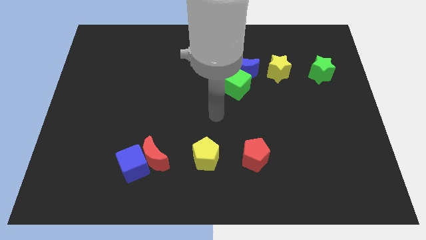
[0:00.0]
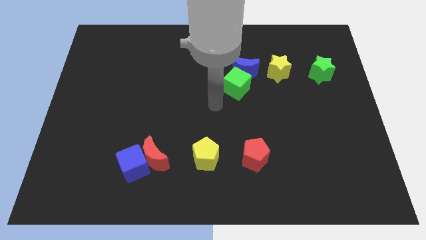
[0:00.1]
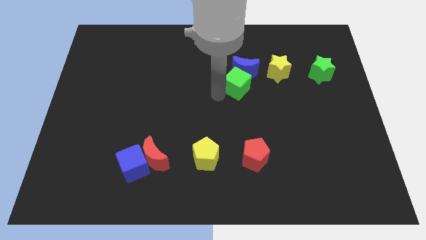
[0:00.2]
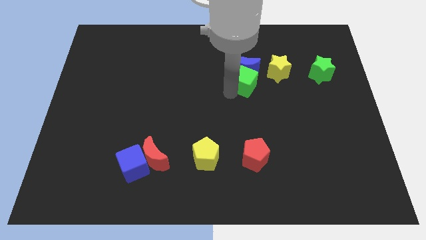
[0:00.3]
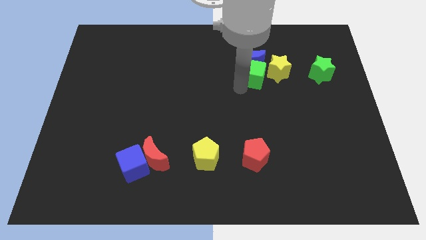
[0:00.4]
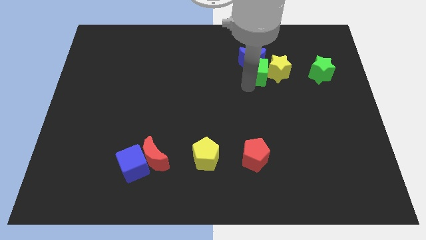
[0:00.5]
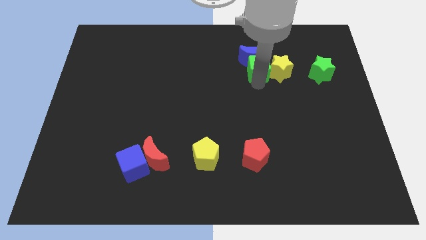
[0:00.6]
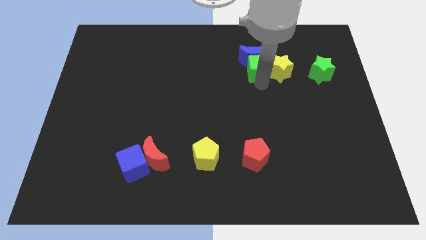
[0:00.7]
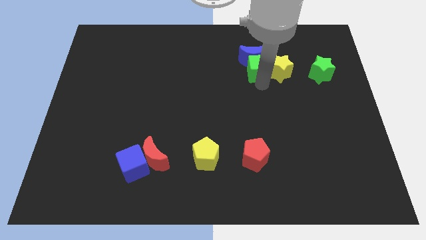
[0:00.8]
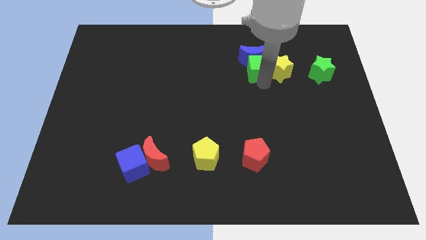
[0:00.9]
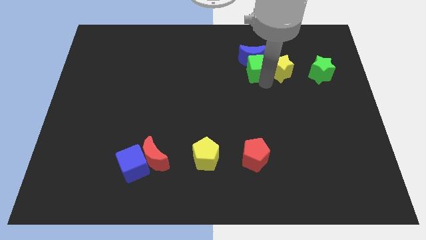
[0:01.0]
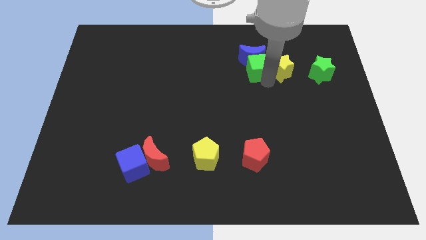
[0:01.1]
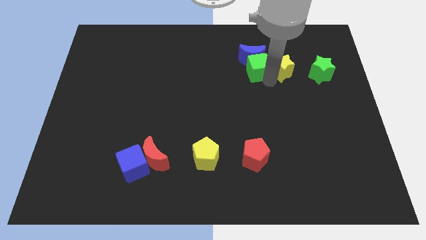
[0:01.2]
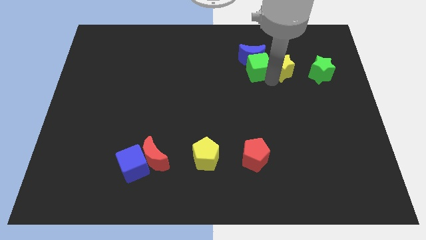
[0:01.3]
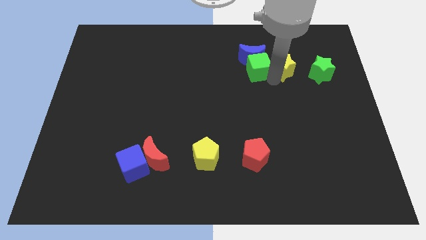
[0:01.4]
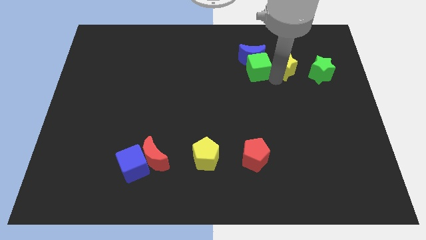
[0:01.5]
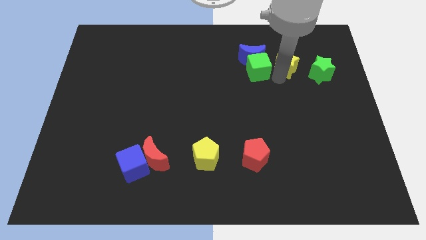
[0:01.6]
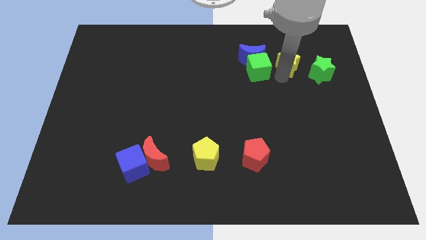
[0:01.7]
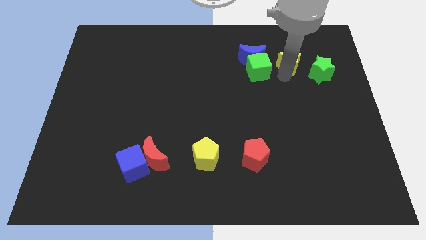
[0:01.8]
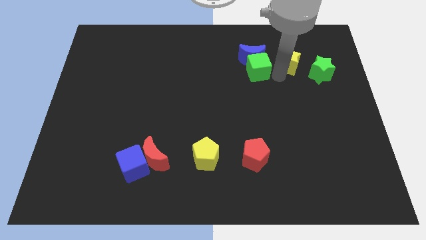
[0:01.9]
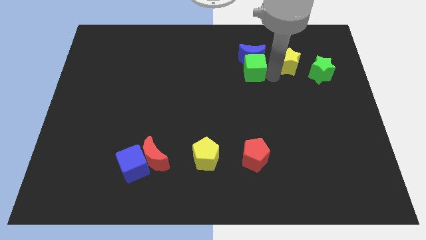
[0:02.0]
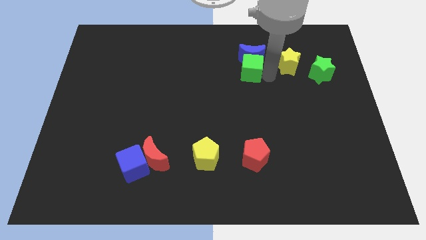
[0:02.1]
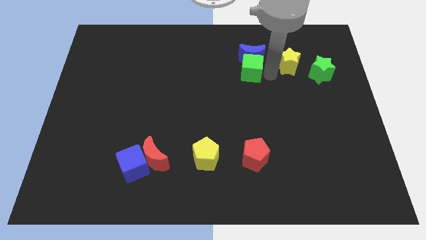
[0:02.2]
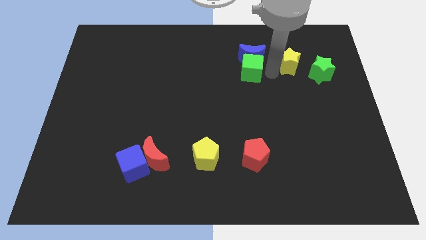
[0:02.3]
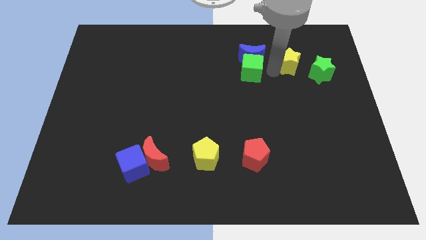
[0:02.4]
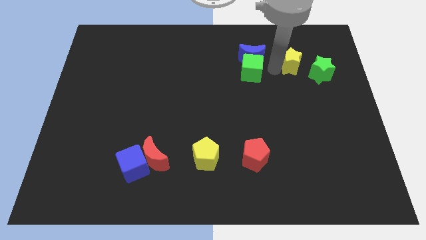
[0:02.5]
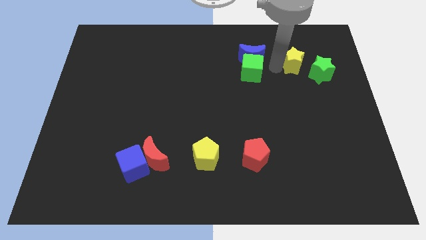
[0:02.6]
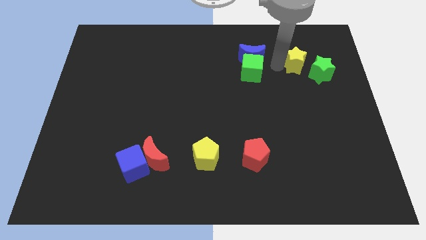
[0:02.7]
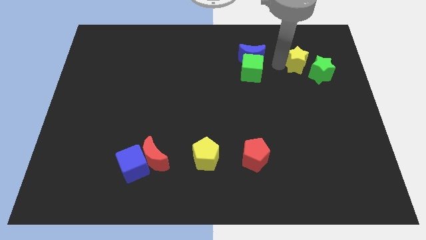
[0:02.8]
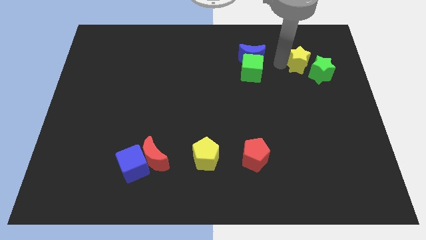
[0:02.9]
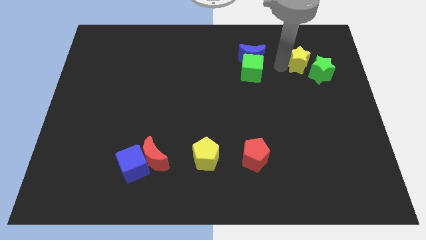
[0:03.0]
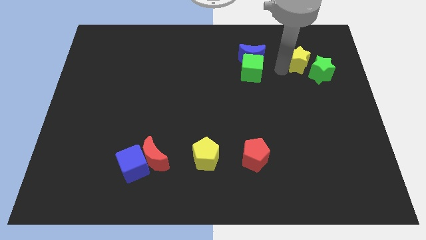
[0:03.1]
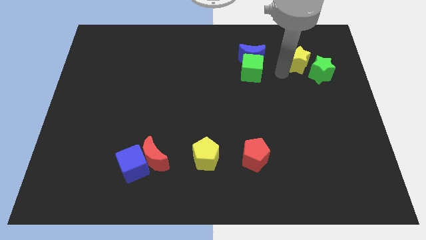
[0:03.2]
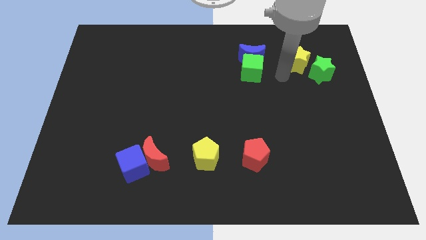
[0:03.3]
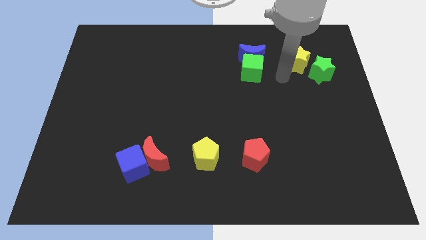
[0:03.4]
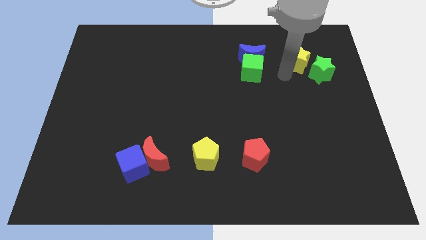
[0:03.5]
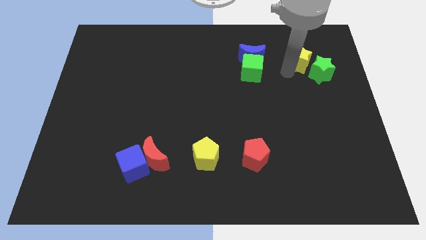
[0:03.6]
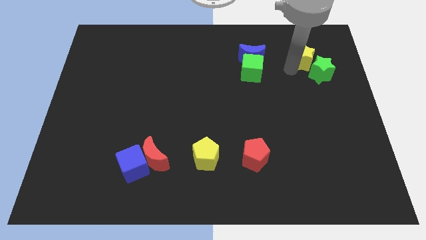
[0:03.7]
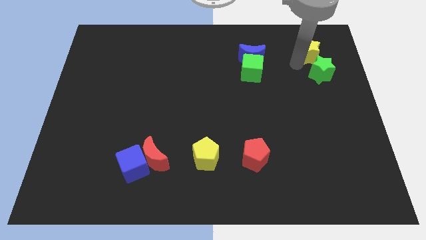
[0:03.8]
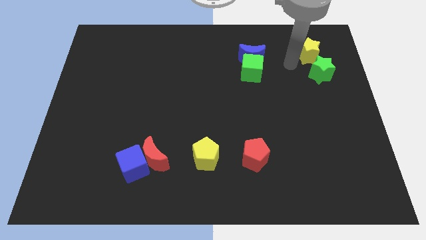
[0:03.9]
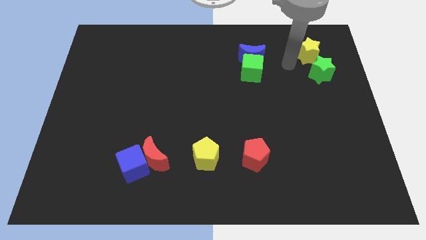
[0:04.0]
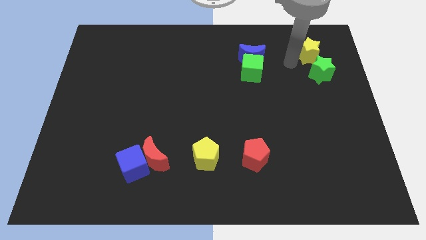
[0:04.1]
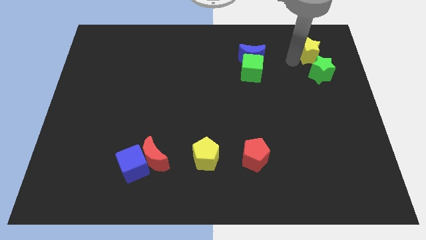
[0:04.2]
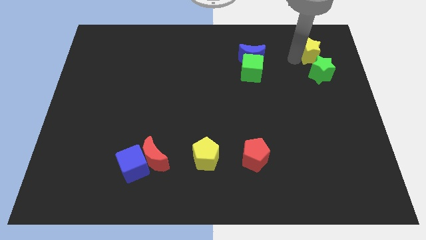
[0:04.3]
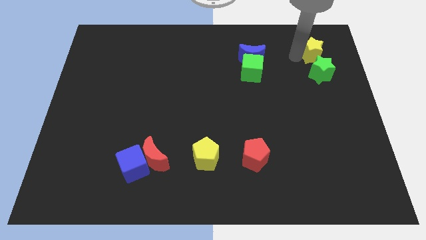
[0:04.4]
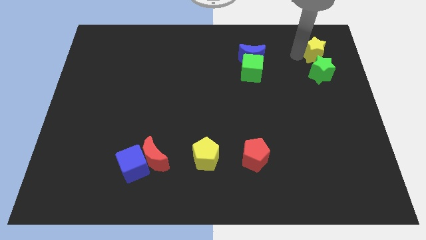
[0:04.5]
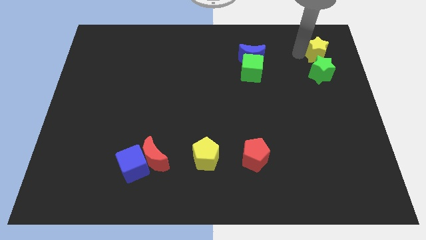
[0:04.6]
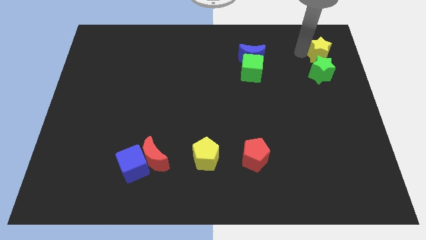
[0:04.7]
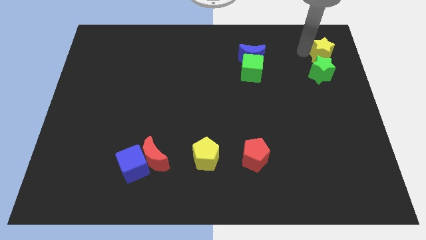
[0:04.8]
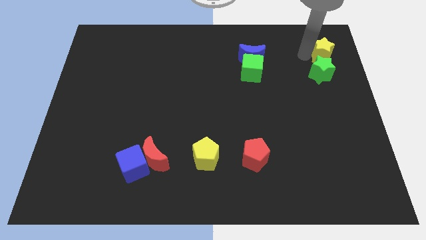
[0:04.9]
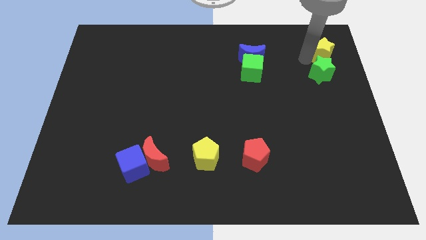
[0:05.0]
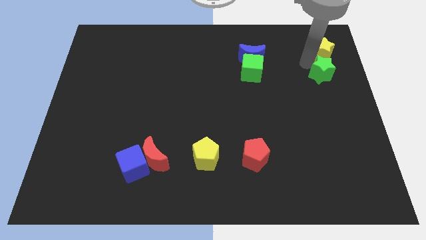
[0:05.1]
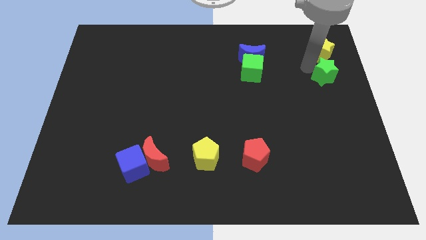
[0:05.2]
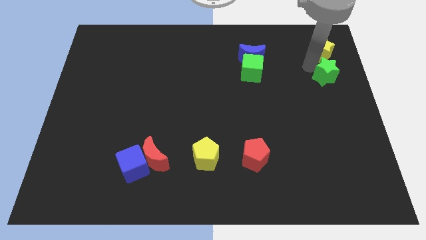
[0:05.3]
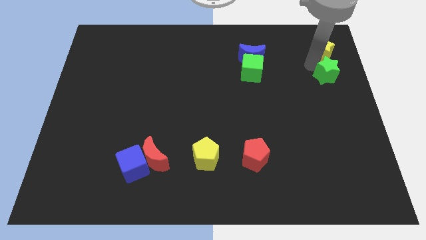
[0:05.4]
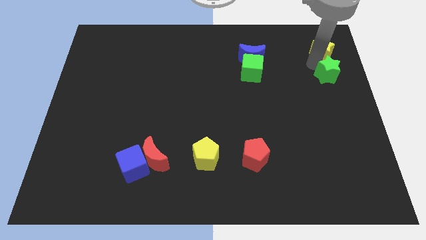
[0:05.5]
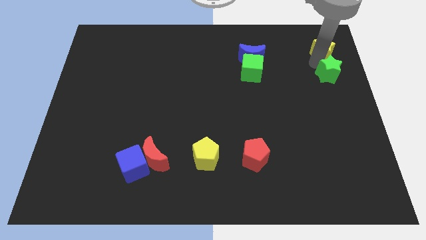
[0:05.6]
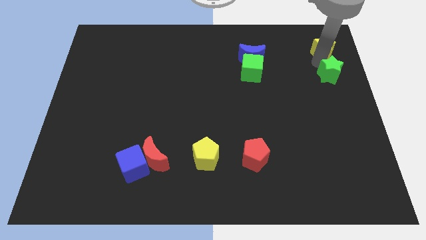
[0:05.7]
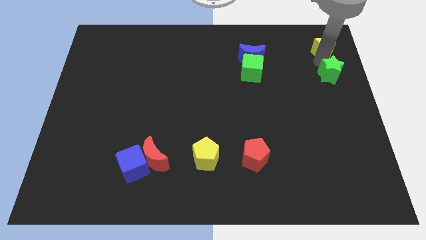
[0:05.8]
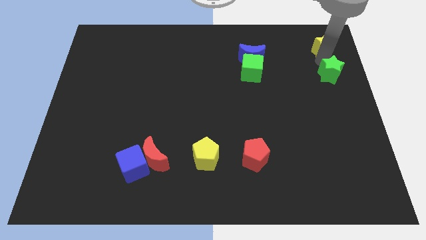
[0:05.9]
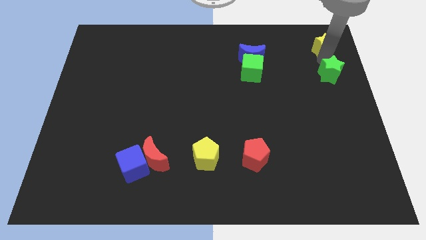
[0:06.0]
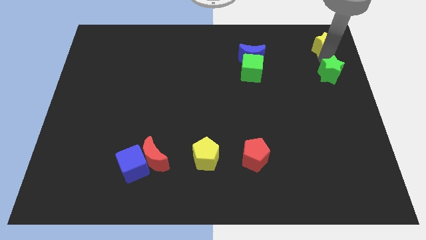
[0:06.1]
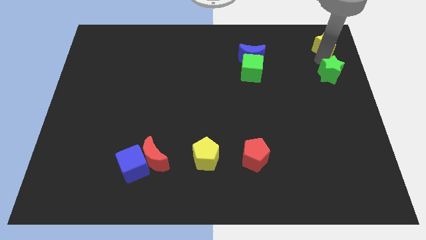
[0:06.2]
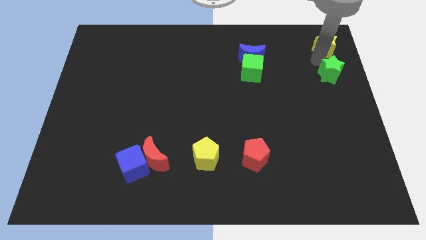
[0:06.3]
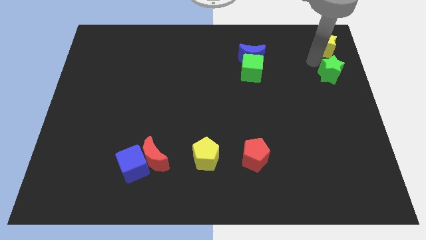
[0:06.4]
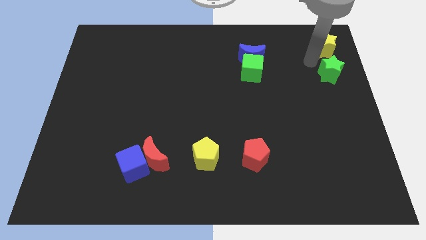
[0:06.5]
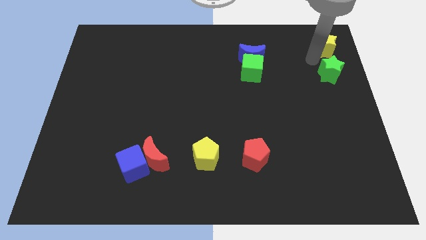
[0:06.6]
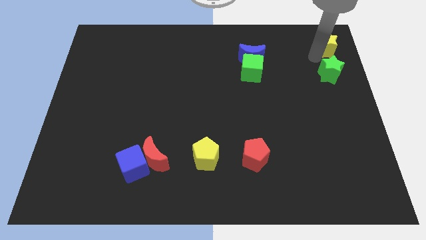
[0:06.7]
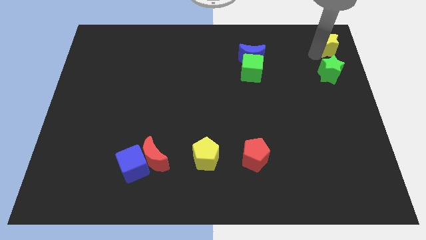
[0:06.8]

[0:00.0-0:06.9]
put the yellow star to the upper right corner
